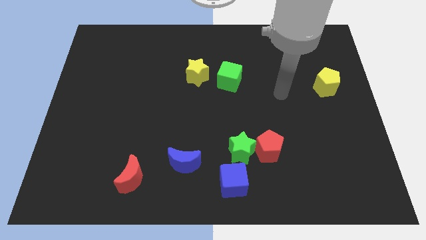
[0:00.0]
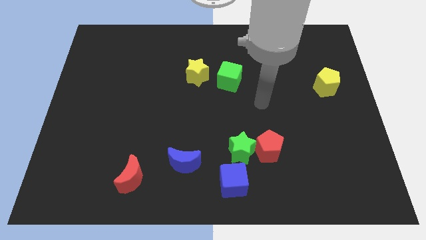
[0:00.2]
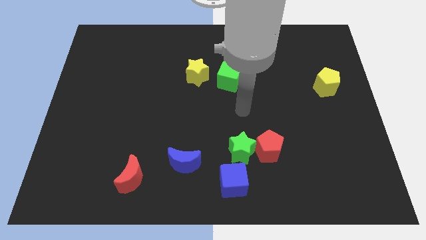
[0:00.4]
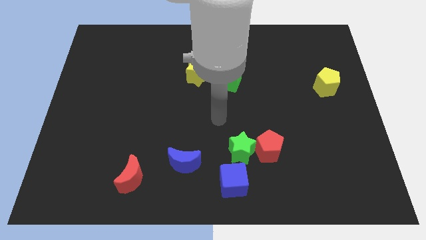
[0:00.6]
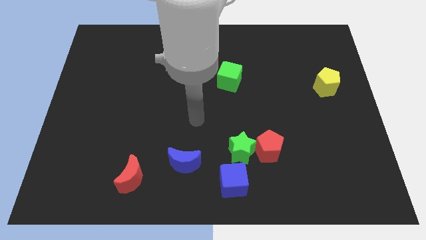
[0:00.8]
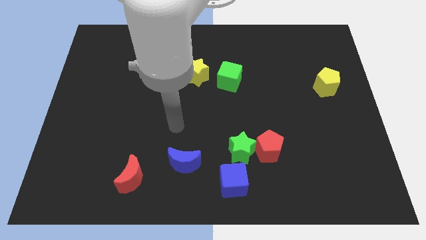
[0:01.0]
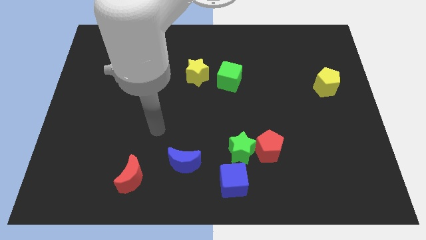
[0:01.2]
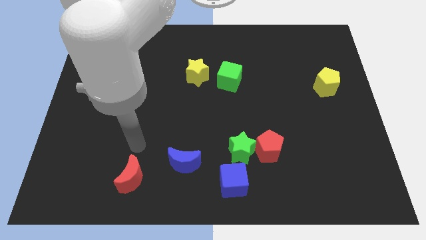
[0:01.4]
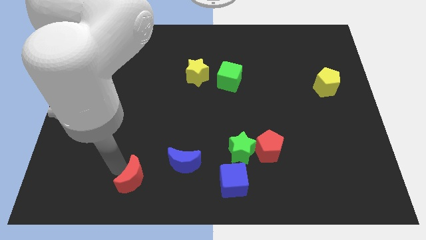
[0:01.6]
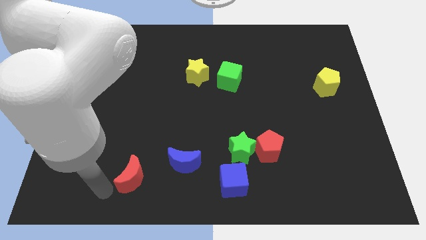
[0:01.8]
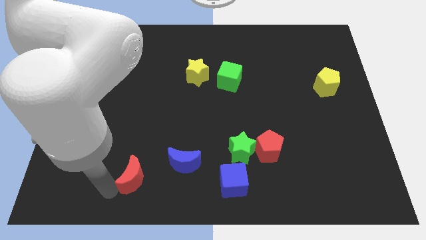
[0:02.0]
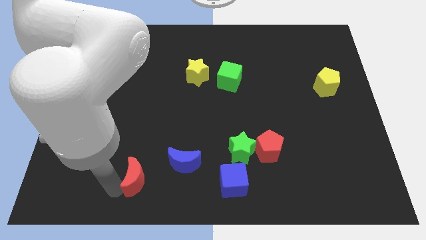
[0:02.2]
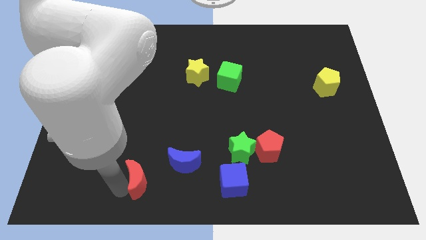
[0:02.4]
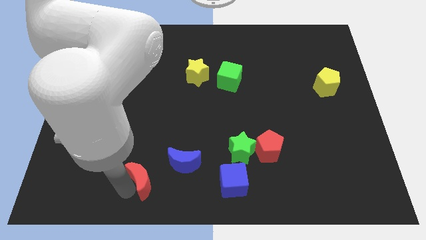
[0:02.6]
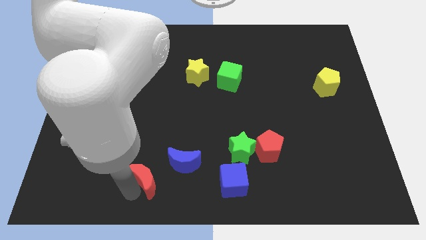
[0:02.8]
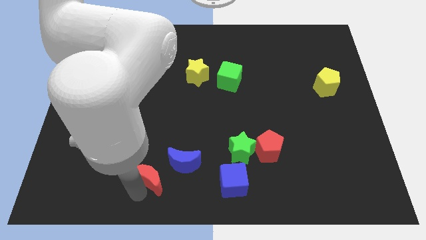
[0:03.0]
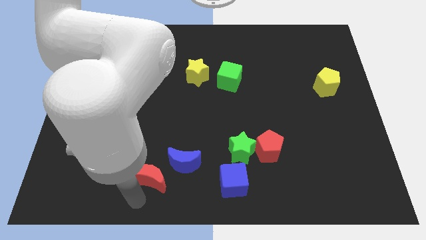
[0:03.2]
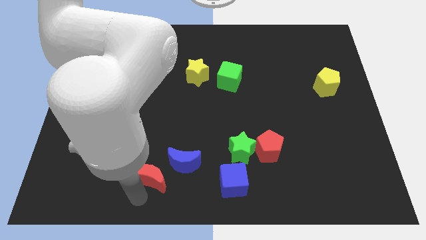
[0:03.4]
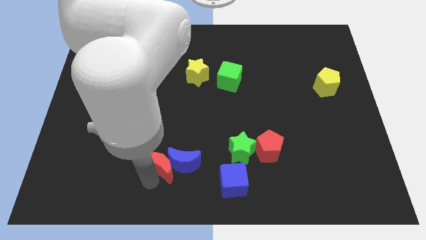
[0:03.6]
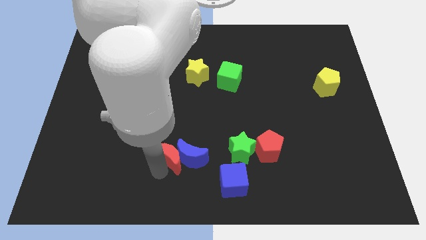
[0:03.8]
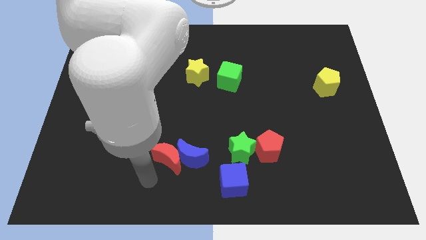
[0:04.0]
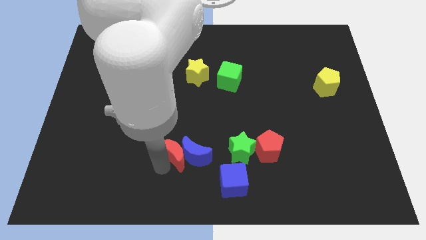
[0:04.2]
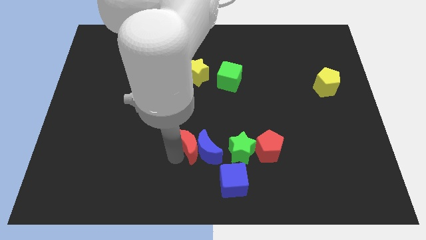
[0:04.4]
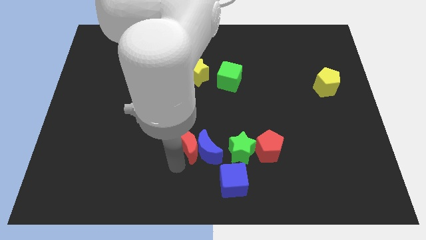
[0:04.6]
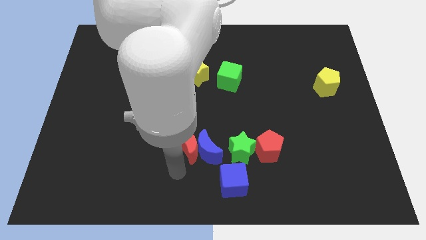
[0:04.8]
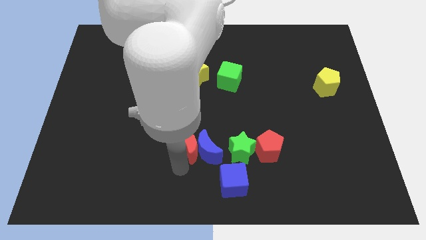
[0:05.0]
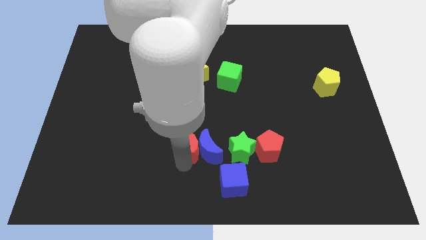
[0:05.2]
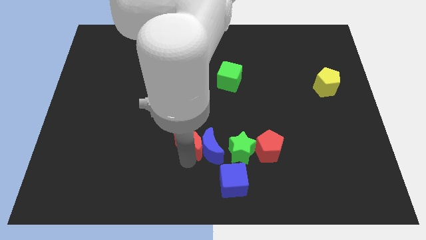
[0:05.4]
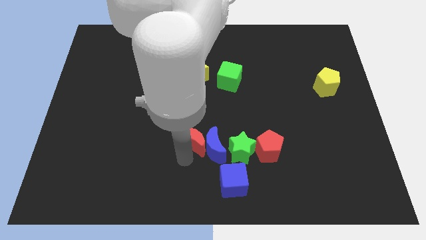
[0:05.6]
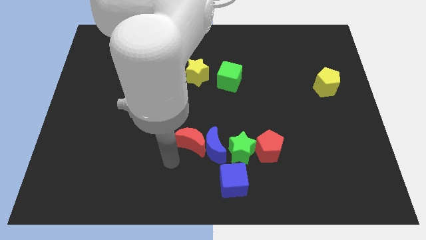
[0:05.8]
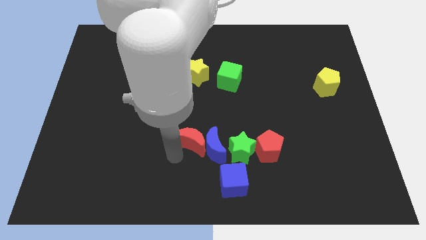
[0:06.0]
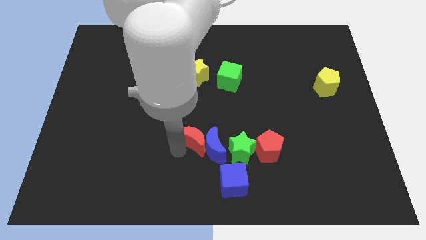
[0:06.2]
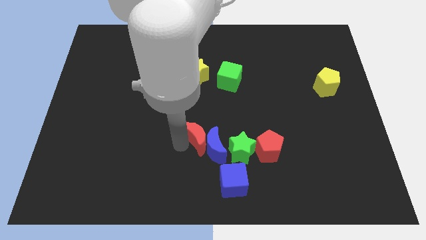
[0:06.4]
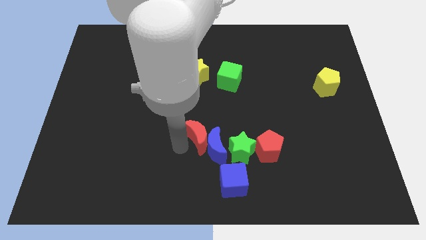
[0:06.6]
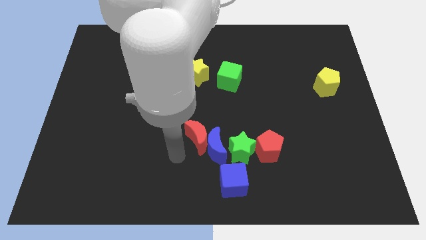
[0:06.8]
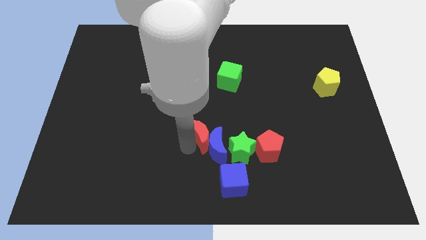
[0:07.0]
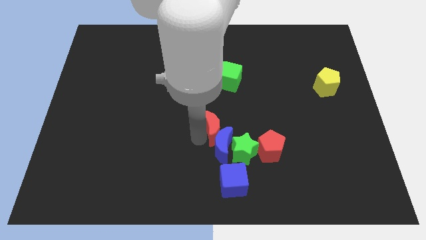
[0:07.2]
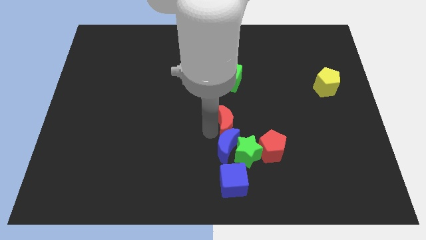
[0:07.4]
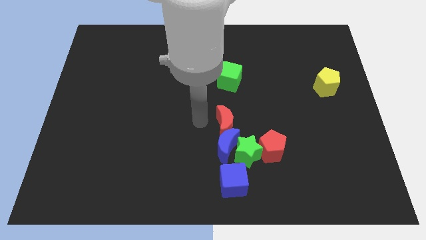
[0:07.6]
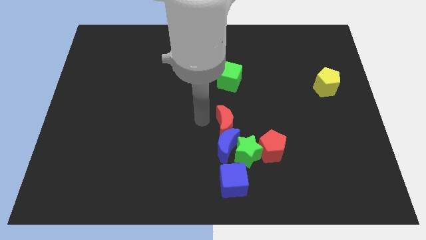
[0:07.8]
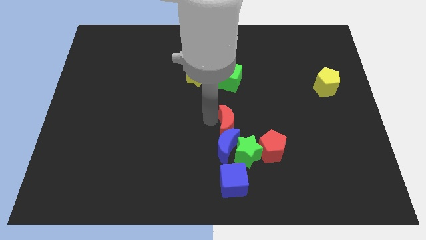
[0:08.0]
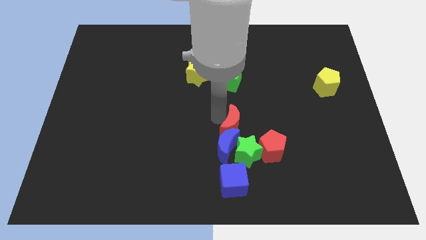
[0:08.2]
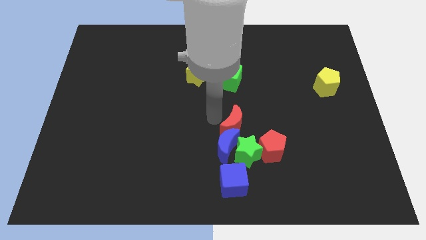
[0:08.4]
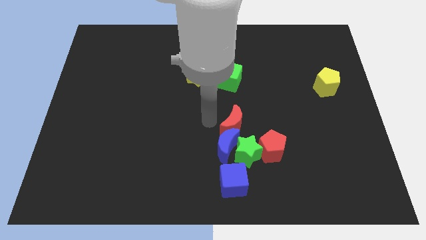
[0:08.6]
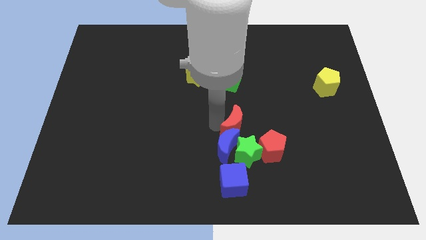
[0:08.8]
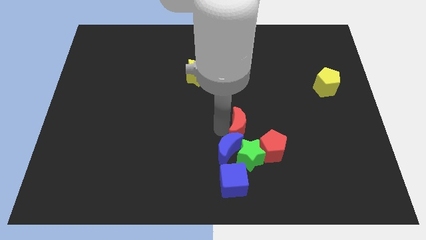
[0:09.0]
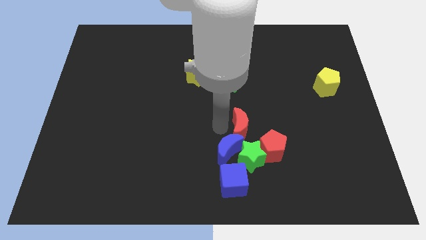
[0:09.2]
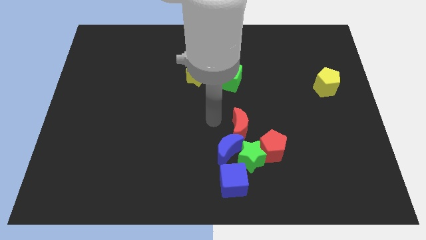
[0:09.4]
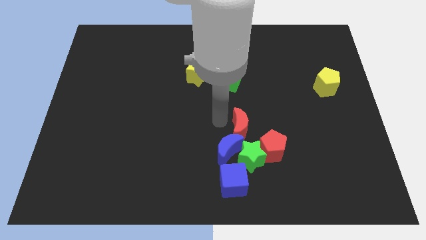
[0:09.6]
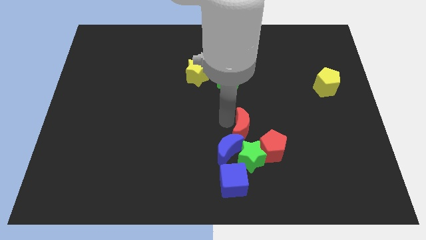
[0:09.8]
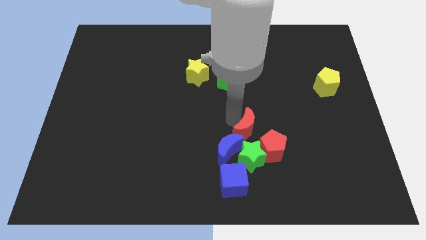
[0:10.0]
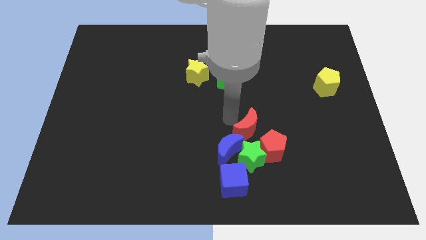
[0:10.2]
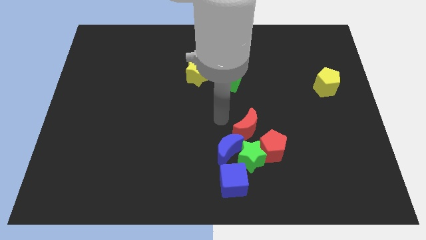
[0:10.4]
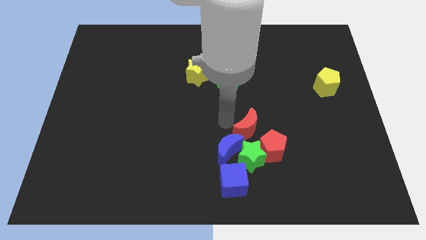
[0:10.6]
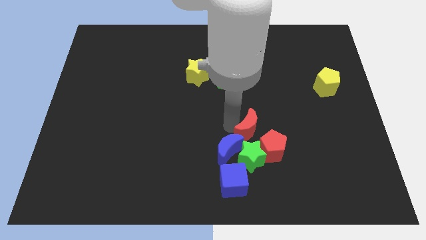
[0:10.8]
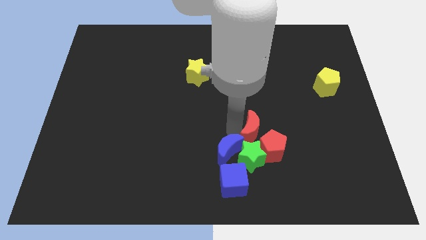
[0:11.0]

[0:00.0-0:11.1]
put the red moon to the top right of the green star

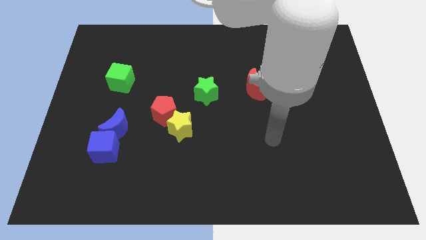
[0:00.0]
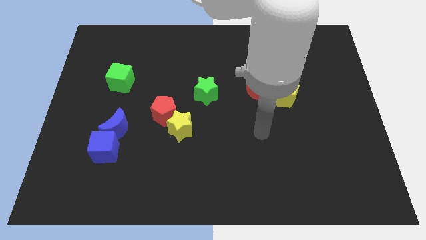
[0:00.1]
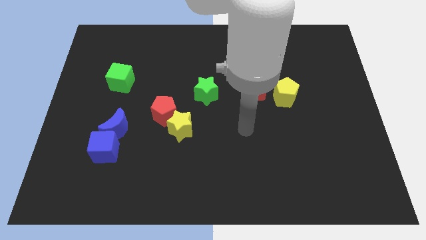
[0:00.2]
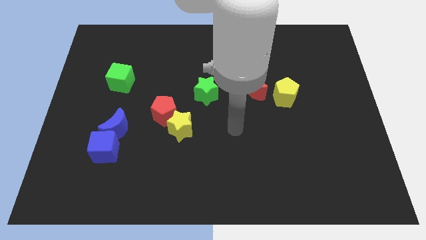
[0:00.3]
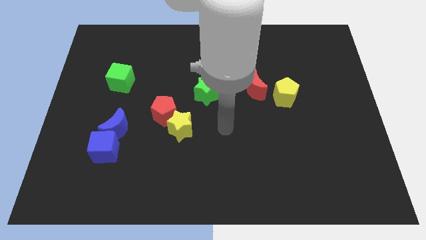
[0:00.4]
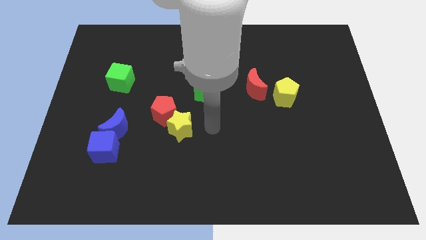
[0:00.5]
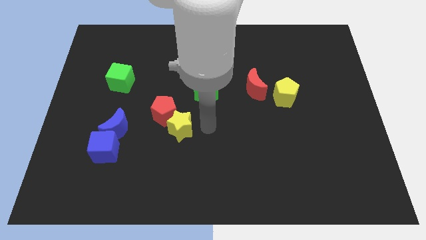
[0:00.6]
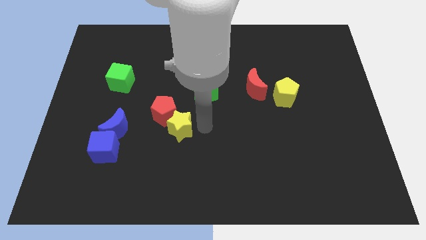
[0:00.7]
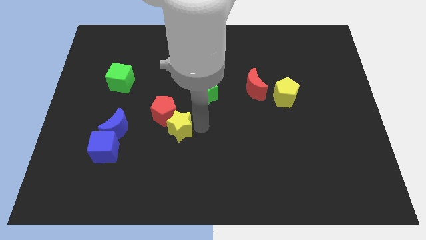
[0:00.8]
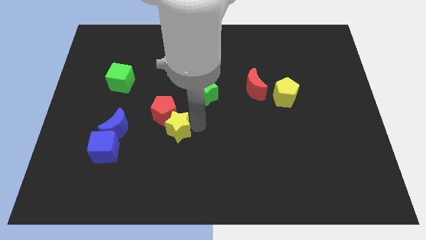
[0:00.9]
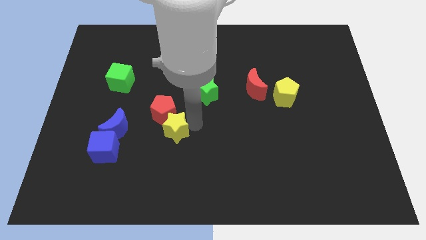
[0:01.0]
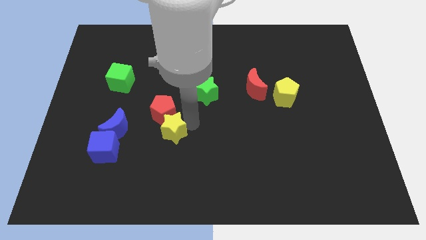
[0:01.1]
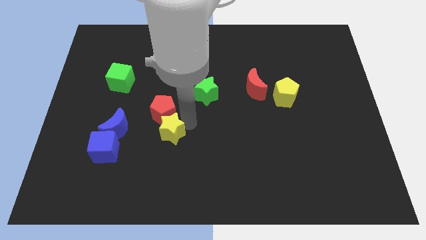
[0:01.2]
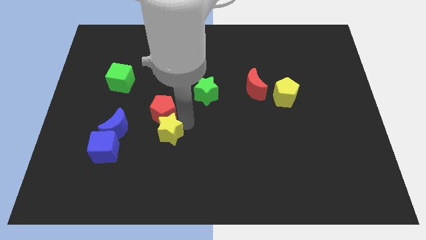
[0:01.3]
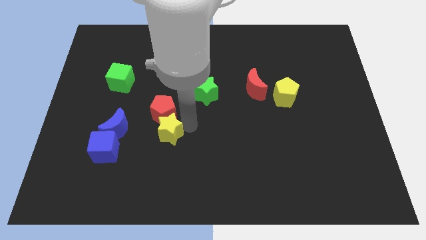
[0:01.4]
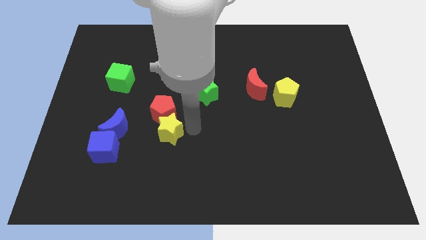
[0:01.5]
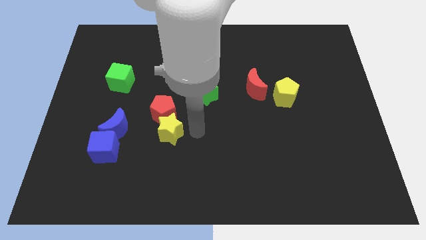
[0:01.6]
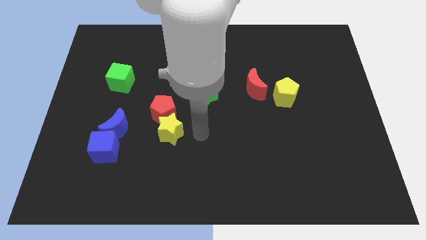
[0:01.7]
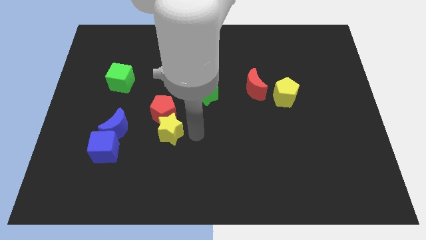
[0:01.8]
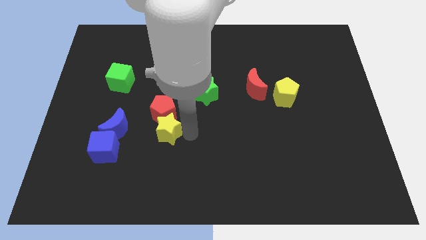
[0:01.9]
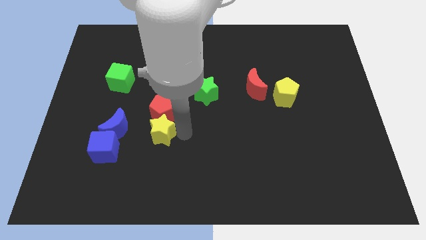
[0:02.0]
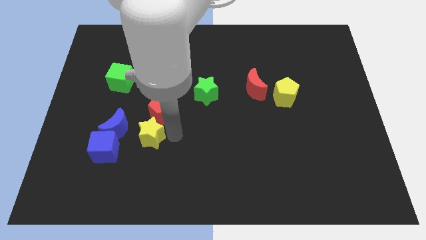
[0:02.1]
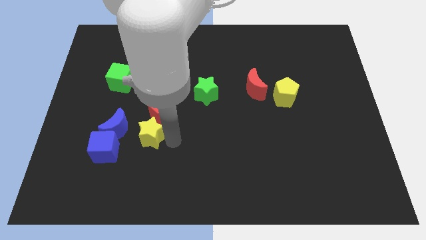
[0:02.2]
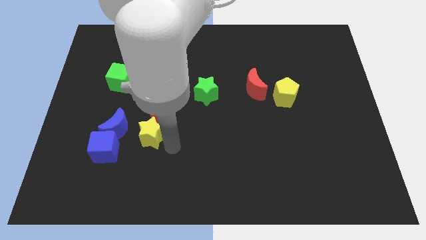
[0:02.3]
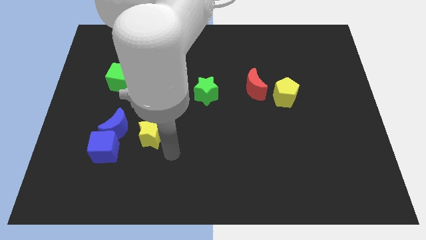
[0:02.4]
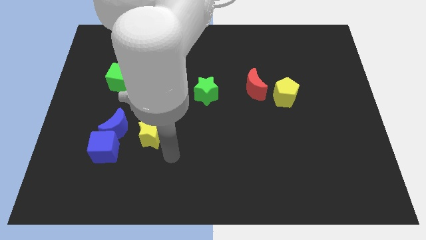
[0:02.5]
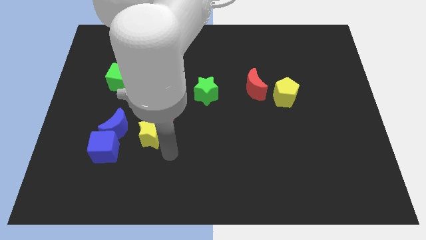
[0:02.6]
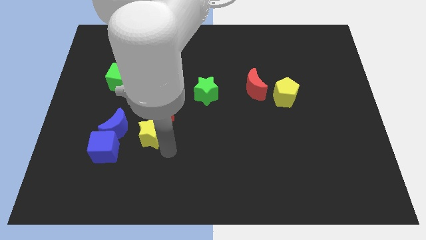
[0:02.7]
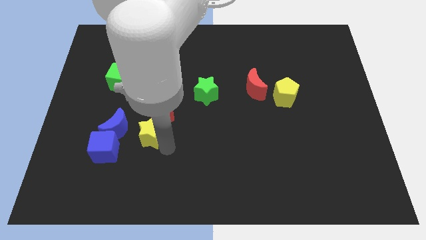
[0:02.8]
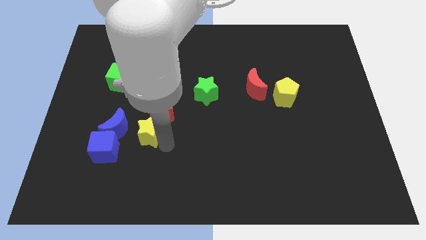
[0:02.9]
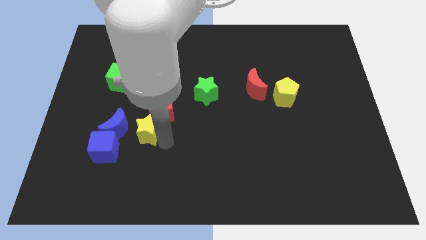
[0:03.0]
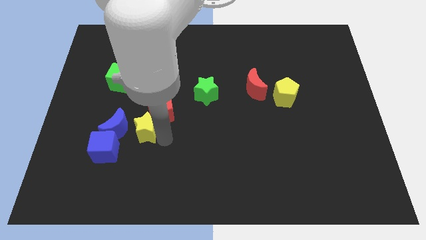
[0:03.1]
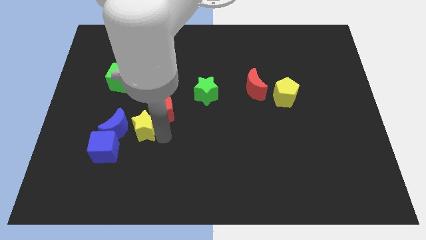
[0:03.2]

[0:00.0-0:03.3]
slide the yellow star to the left side of the red pentagon
